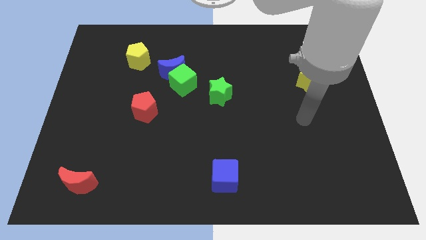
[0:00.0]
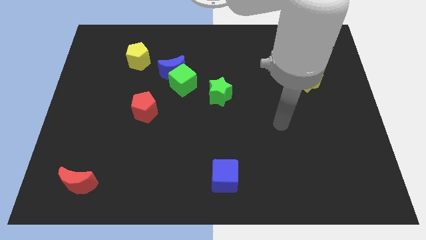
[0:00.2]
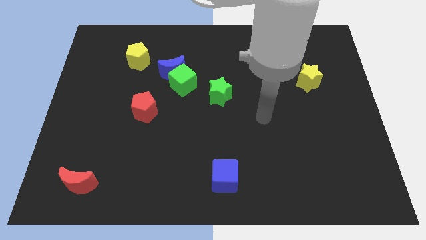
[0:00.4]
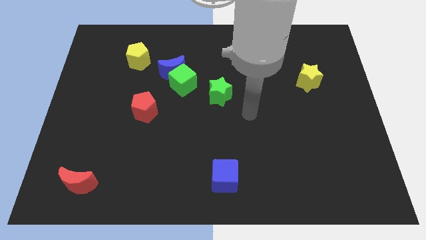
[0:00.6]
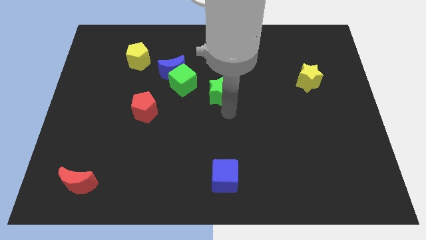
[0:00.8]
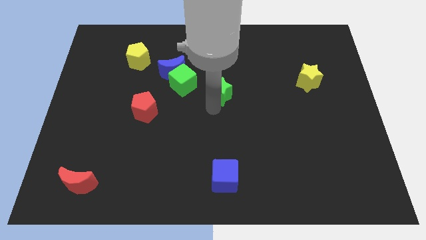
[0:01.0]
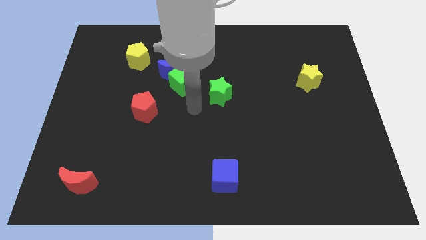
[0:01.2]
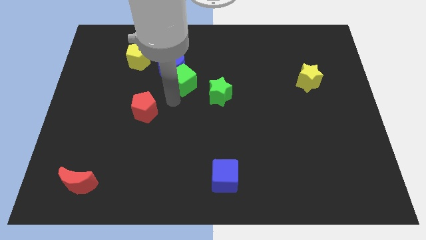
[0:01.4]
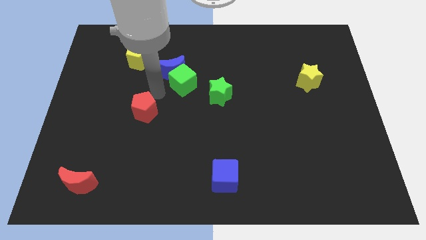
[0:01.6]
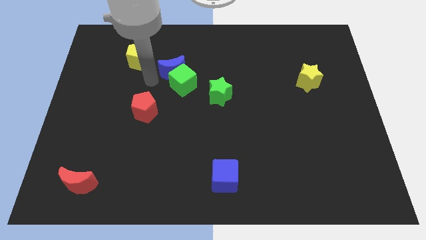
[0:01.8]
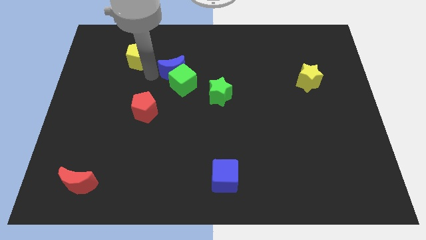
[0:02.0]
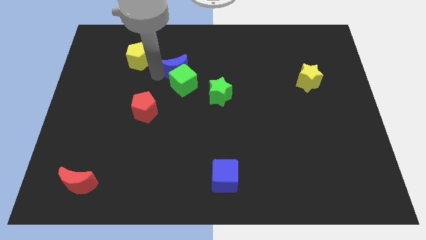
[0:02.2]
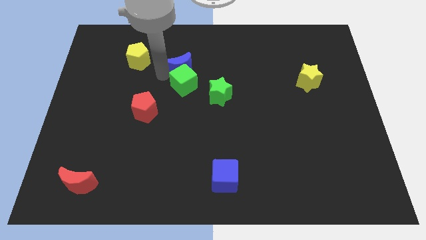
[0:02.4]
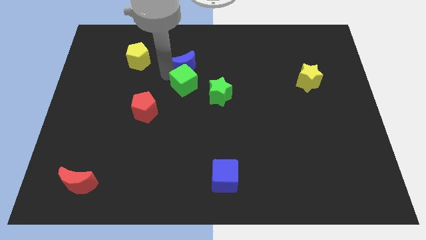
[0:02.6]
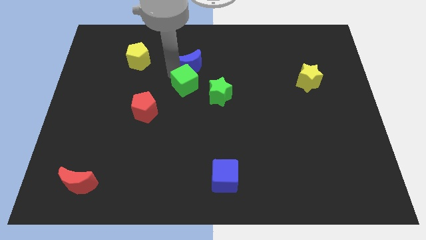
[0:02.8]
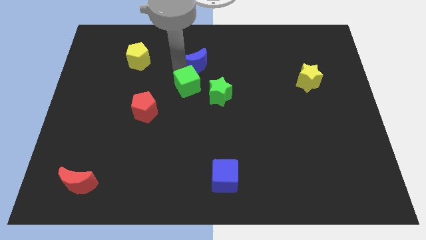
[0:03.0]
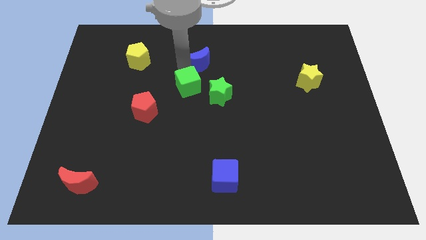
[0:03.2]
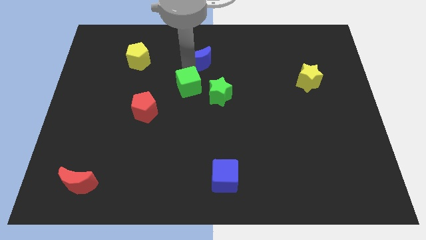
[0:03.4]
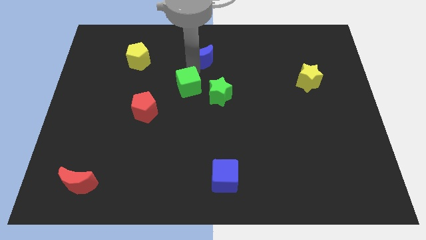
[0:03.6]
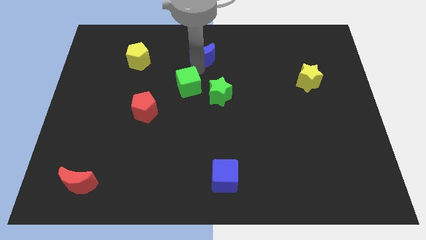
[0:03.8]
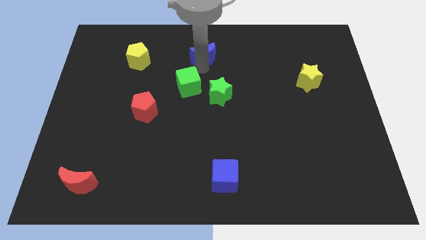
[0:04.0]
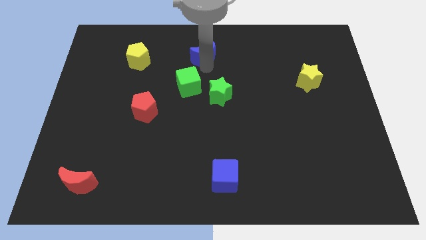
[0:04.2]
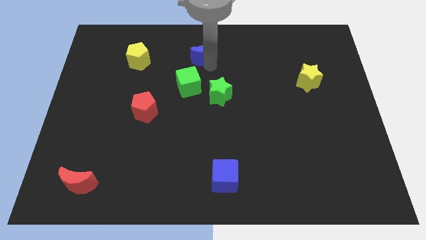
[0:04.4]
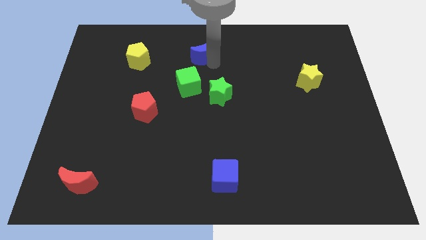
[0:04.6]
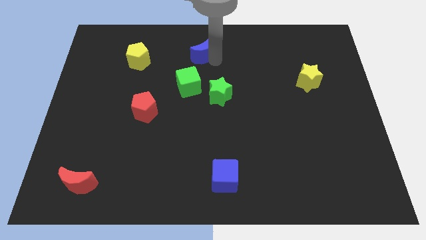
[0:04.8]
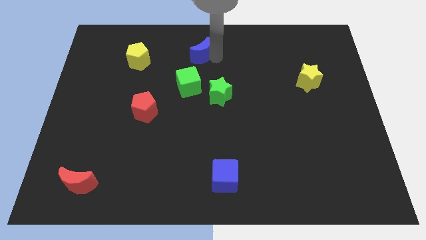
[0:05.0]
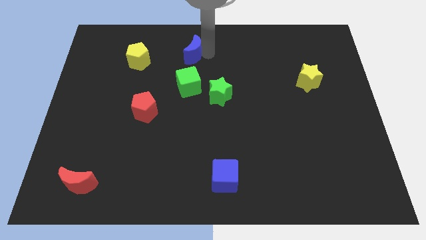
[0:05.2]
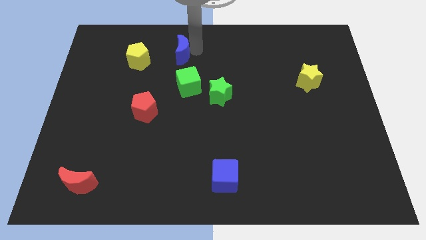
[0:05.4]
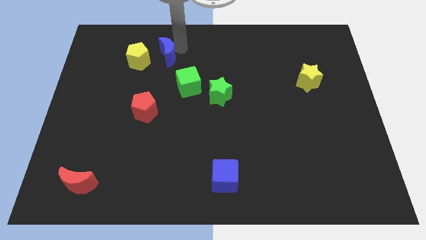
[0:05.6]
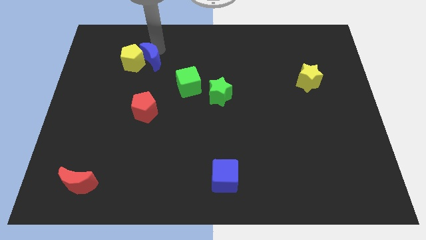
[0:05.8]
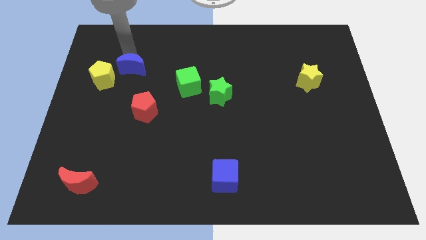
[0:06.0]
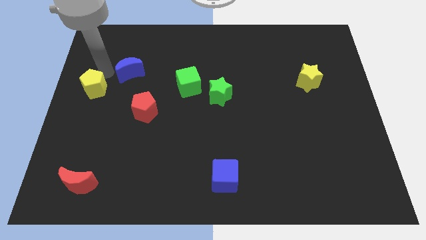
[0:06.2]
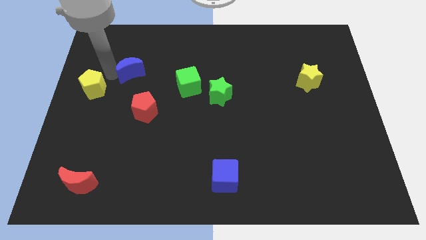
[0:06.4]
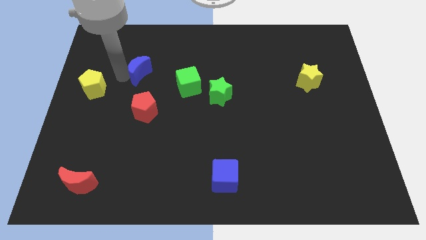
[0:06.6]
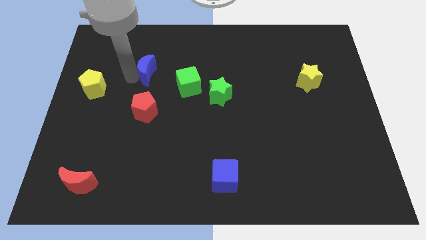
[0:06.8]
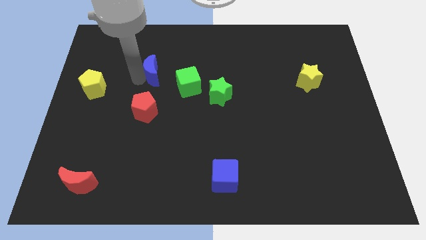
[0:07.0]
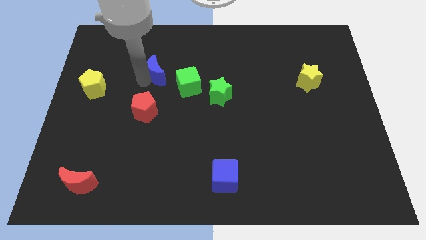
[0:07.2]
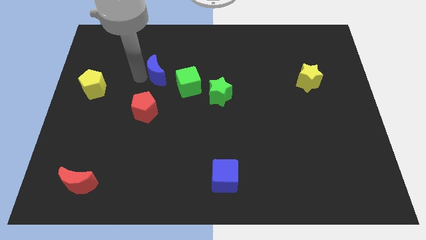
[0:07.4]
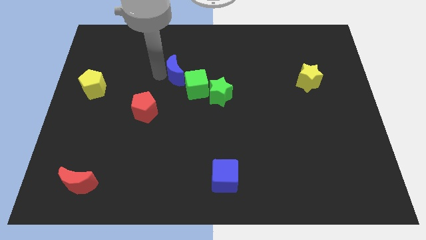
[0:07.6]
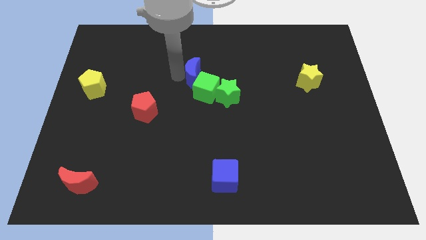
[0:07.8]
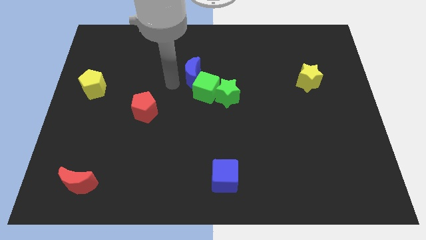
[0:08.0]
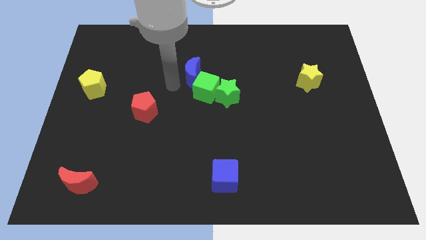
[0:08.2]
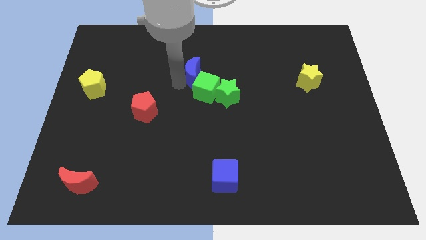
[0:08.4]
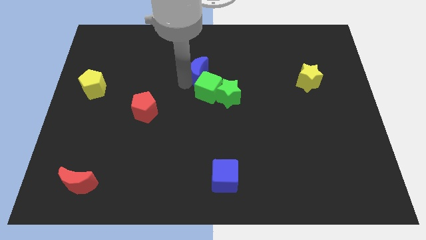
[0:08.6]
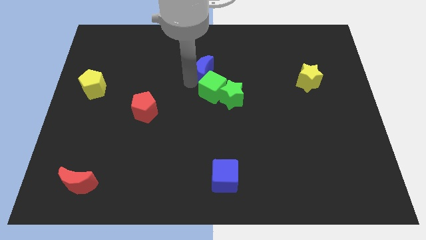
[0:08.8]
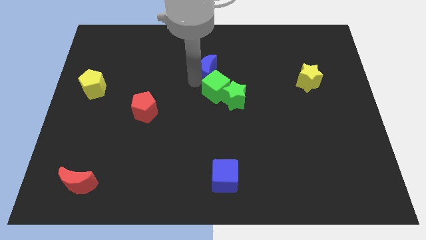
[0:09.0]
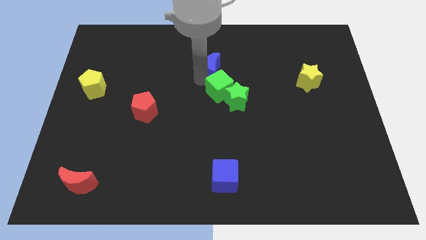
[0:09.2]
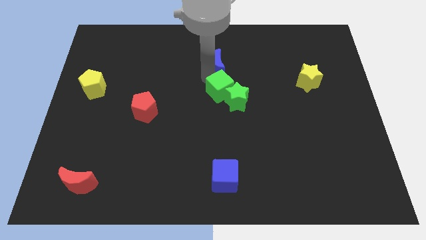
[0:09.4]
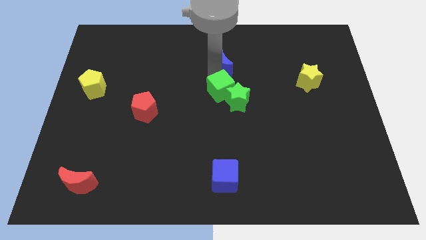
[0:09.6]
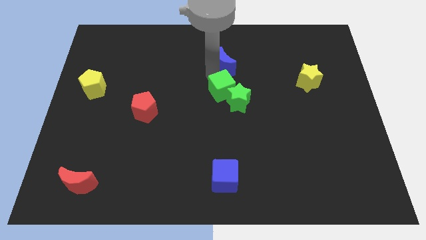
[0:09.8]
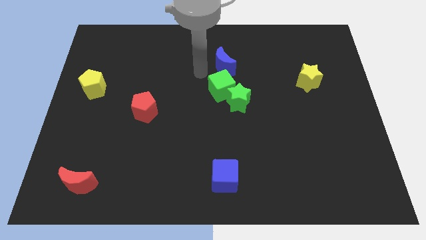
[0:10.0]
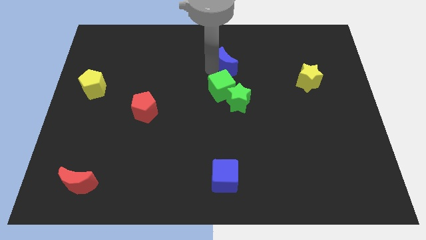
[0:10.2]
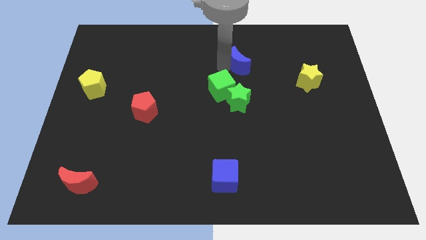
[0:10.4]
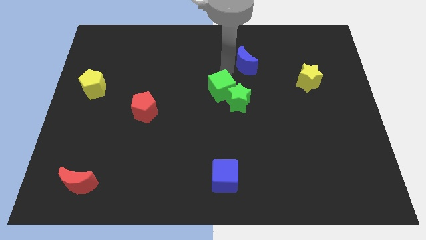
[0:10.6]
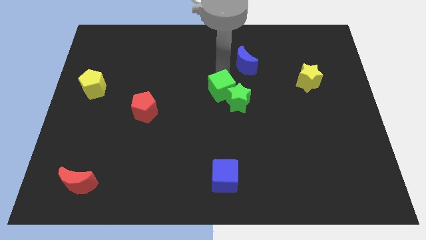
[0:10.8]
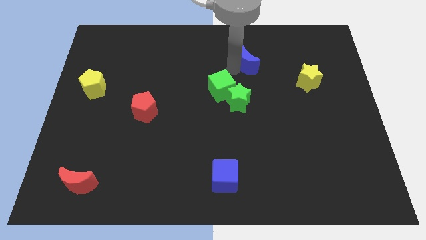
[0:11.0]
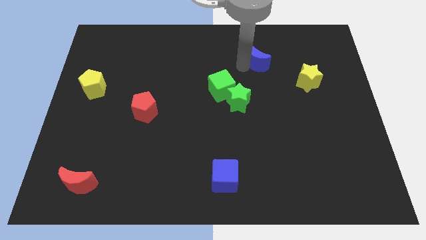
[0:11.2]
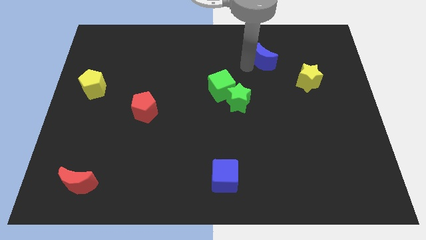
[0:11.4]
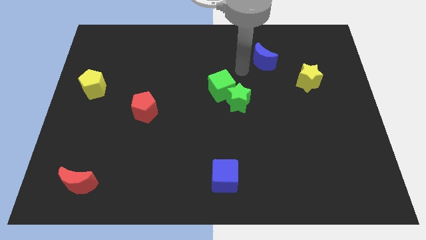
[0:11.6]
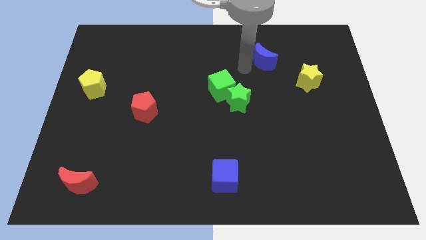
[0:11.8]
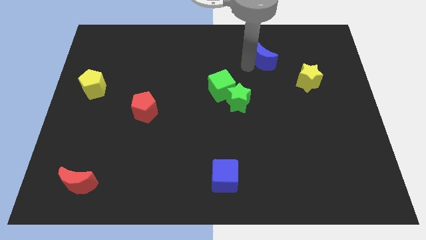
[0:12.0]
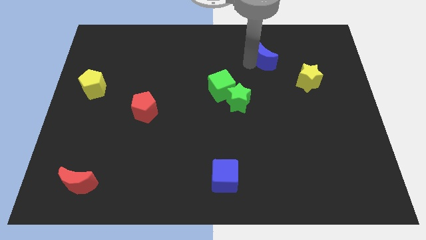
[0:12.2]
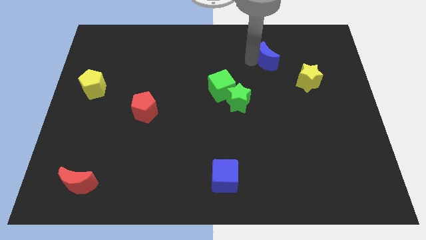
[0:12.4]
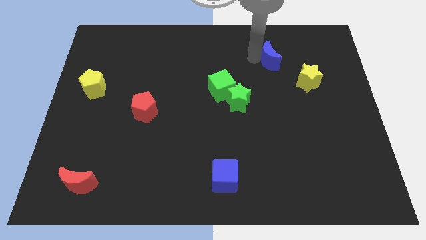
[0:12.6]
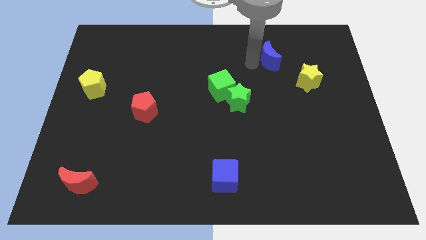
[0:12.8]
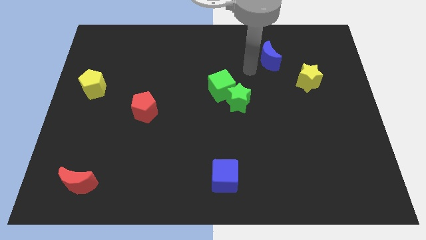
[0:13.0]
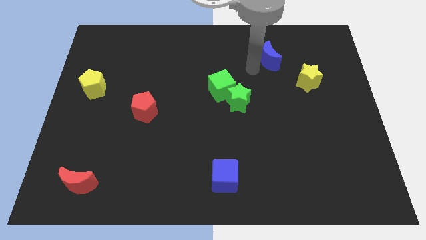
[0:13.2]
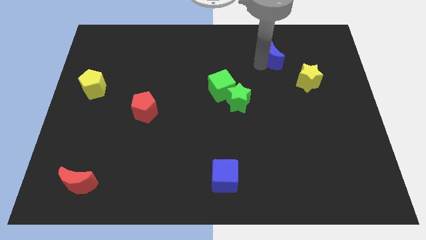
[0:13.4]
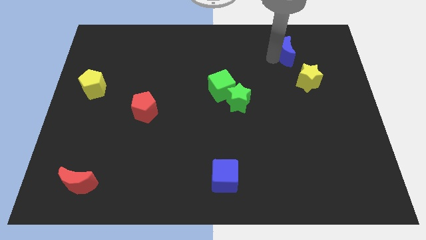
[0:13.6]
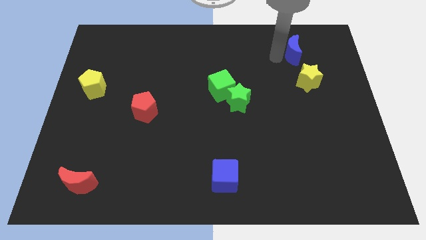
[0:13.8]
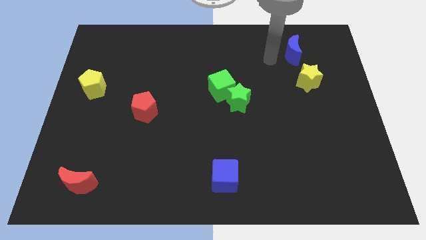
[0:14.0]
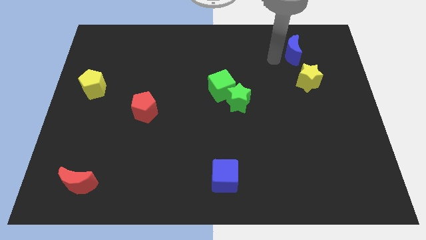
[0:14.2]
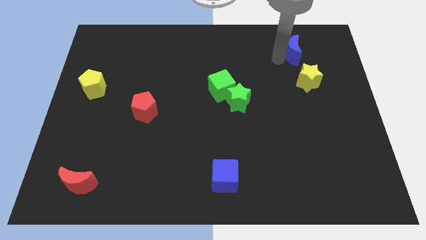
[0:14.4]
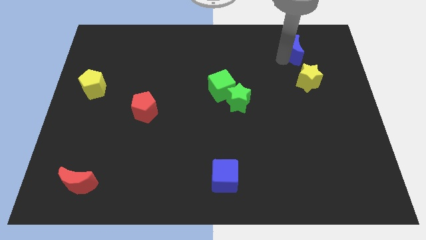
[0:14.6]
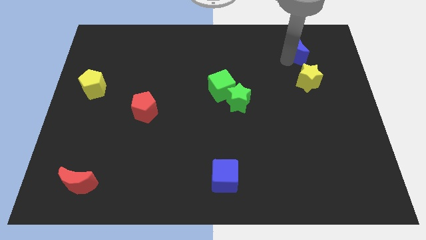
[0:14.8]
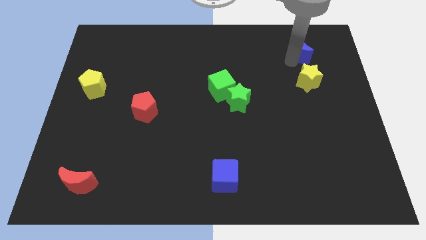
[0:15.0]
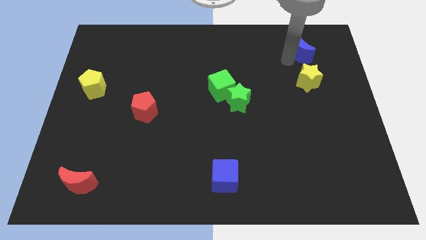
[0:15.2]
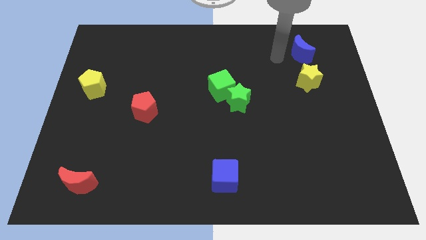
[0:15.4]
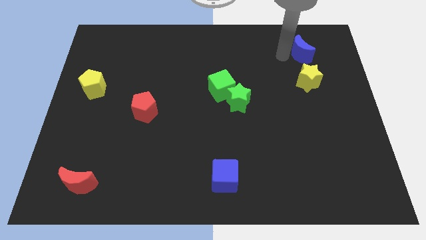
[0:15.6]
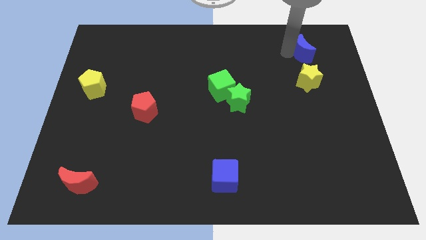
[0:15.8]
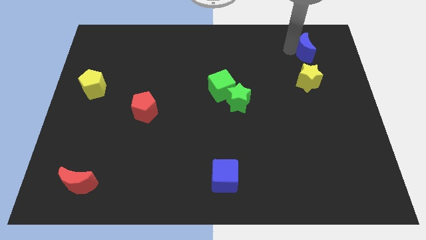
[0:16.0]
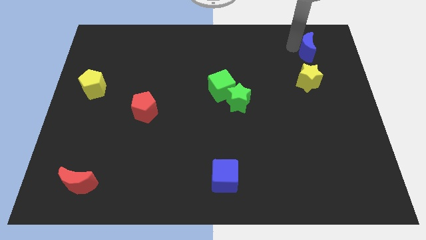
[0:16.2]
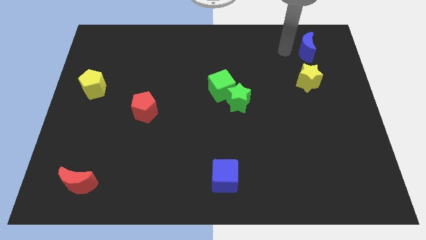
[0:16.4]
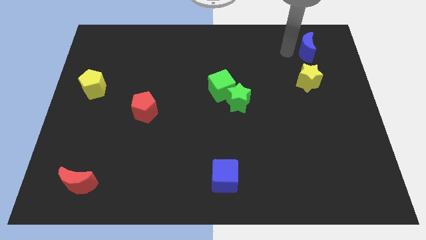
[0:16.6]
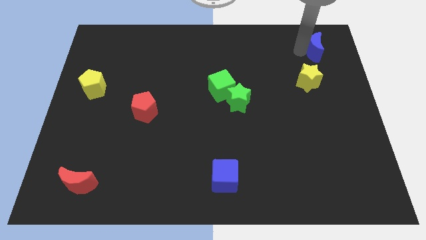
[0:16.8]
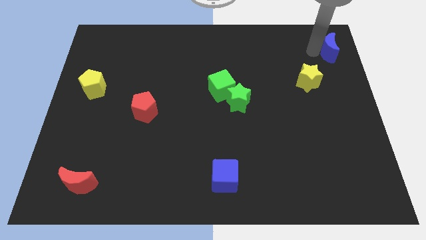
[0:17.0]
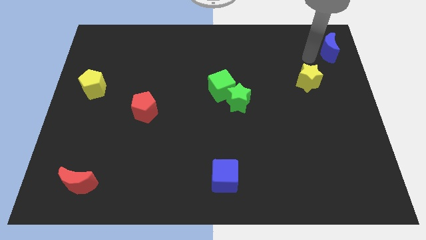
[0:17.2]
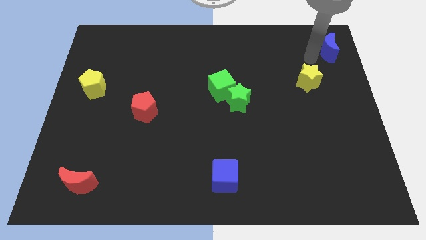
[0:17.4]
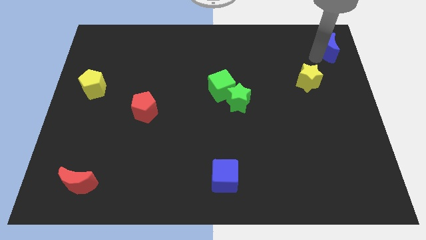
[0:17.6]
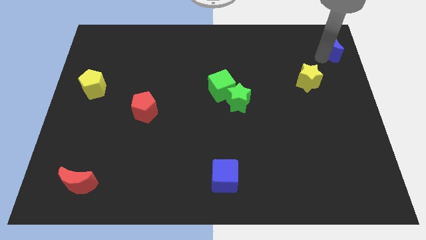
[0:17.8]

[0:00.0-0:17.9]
put the blue moon to the top right corner
